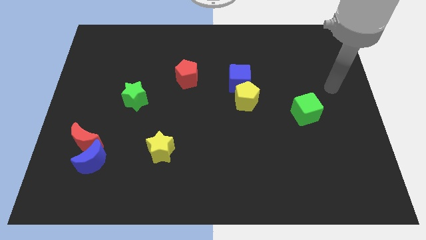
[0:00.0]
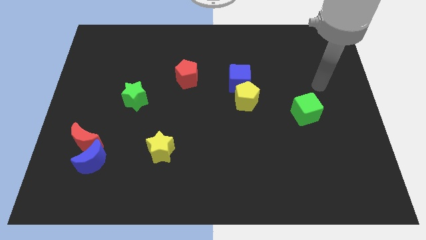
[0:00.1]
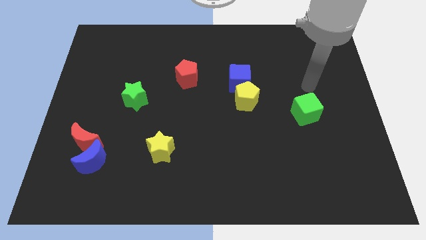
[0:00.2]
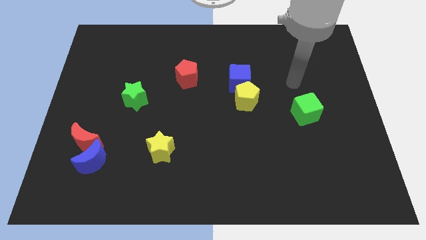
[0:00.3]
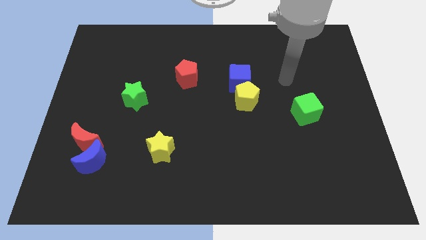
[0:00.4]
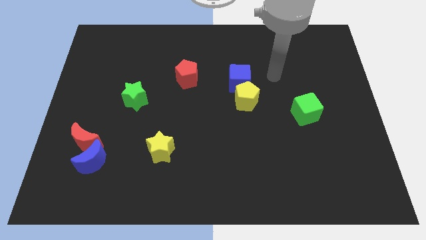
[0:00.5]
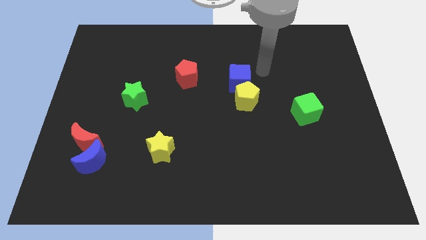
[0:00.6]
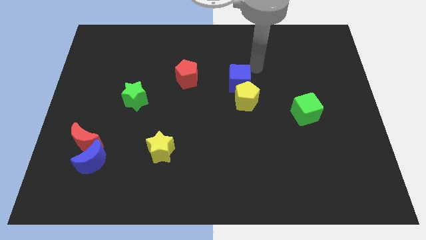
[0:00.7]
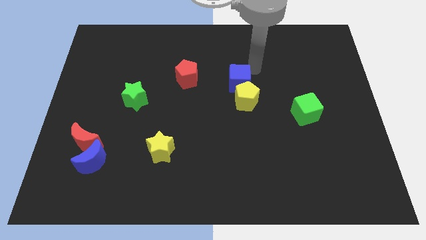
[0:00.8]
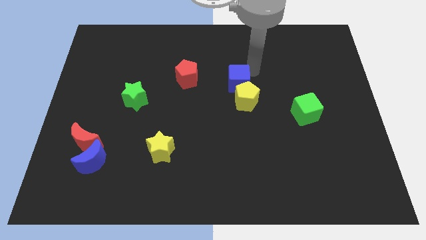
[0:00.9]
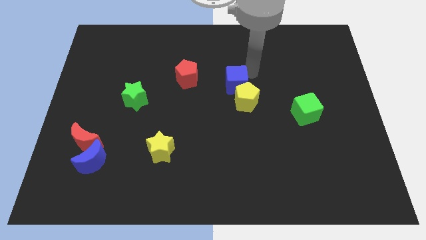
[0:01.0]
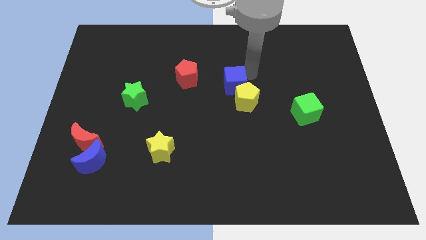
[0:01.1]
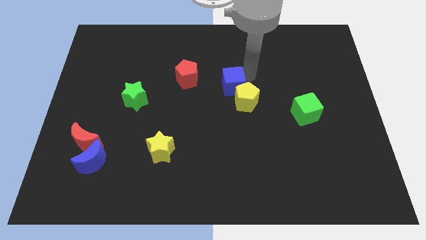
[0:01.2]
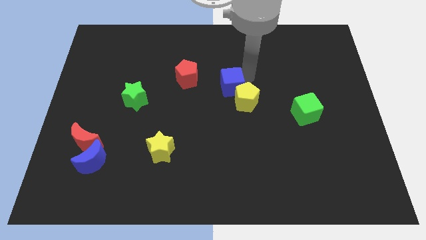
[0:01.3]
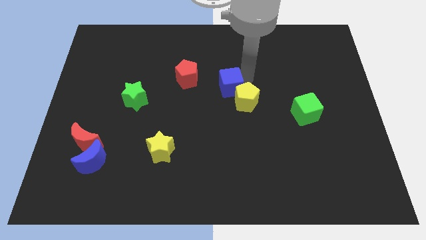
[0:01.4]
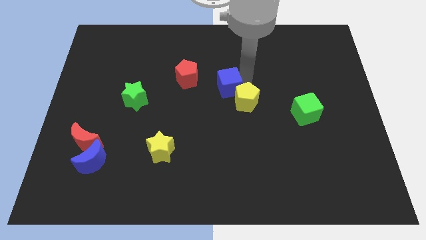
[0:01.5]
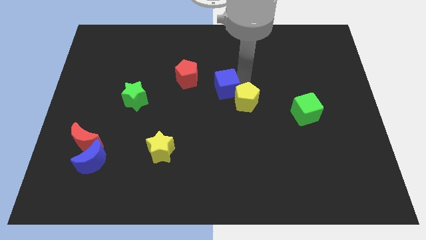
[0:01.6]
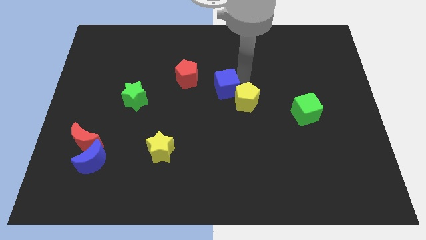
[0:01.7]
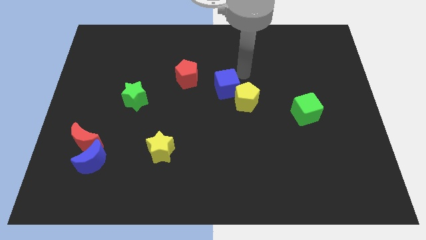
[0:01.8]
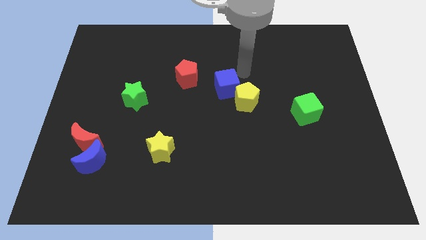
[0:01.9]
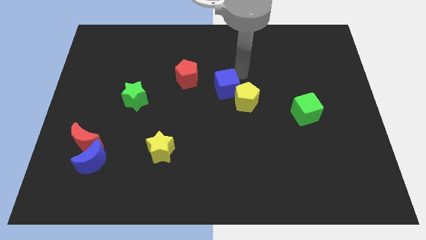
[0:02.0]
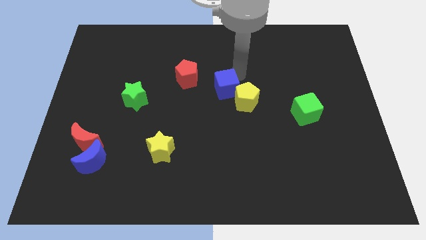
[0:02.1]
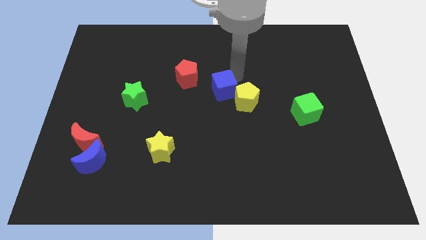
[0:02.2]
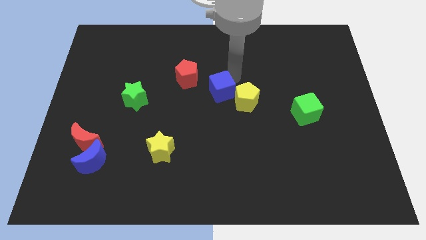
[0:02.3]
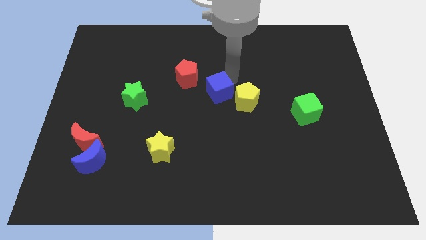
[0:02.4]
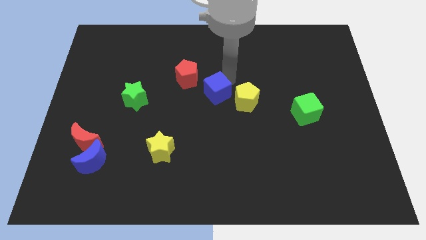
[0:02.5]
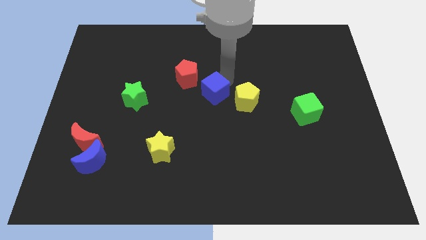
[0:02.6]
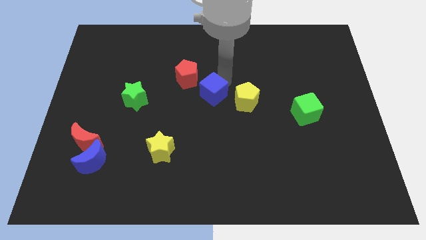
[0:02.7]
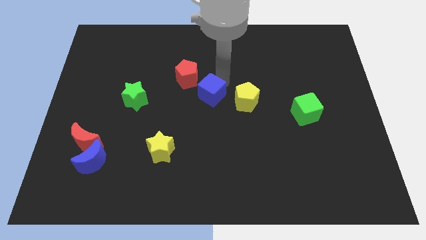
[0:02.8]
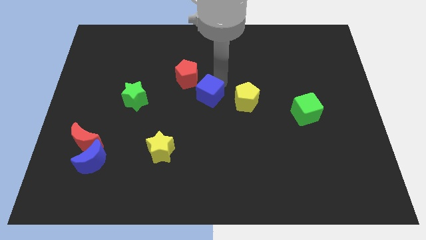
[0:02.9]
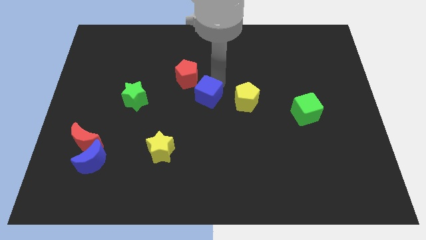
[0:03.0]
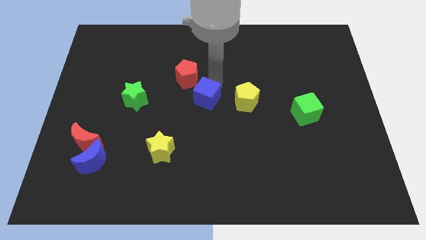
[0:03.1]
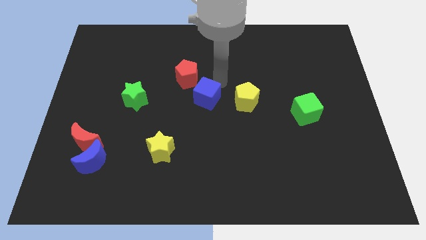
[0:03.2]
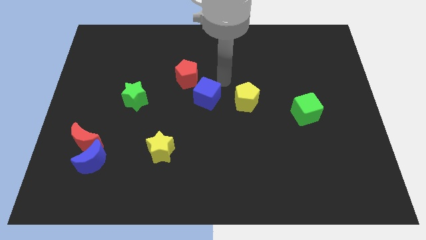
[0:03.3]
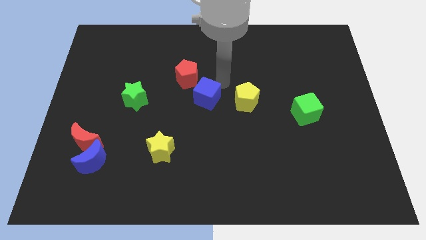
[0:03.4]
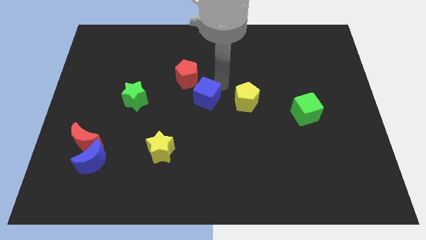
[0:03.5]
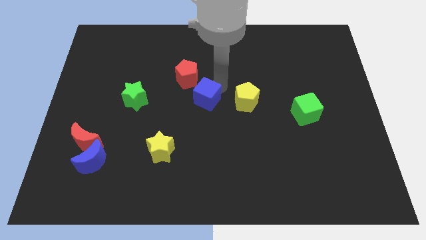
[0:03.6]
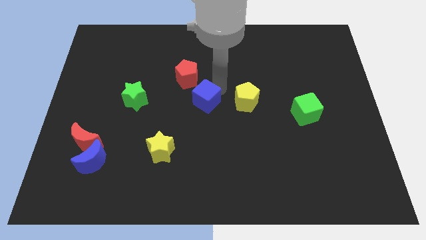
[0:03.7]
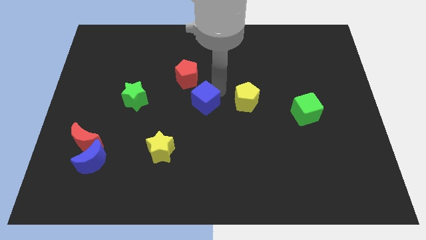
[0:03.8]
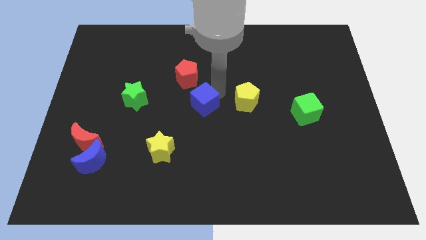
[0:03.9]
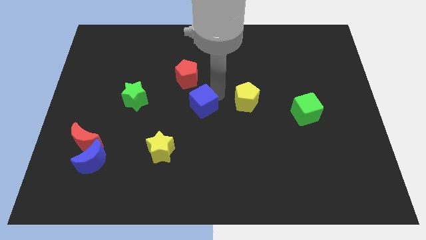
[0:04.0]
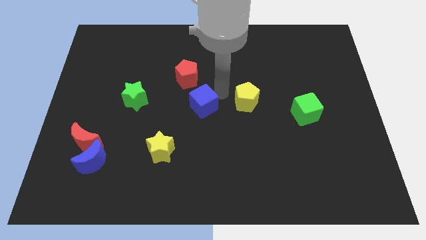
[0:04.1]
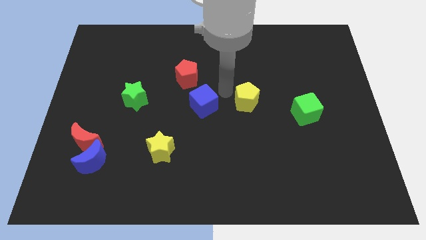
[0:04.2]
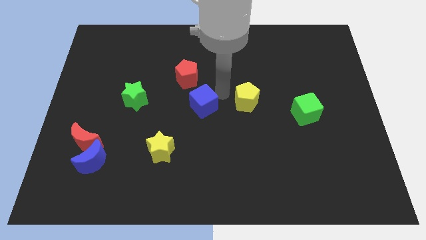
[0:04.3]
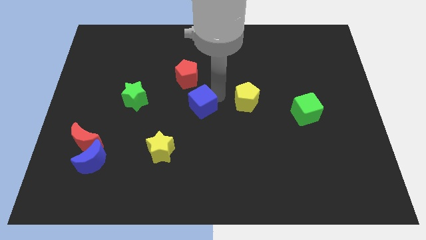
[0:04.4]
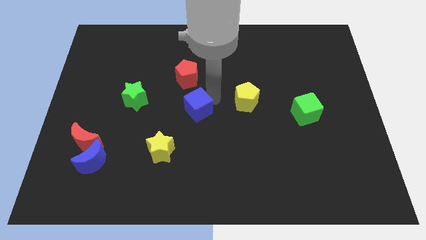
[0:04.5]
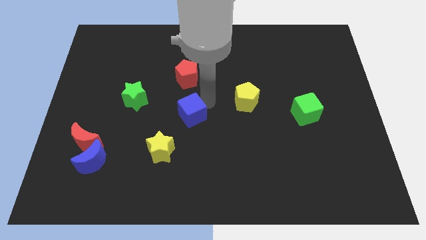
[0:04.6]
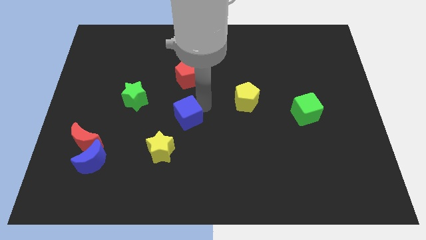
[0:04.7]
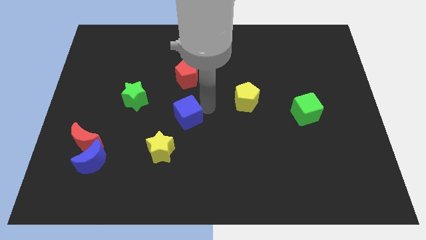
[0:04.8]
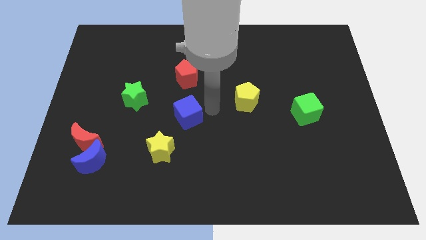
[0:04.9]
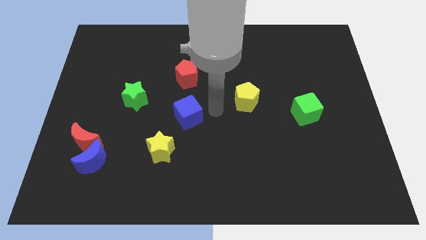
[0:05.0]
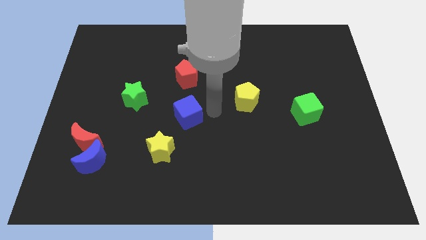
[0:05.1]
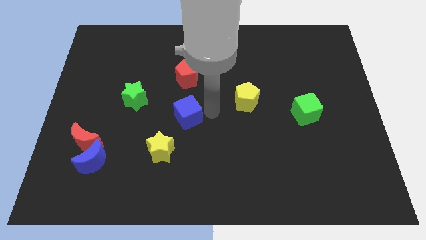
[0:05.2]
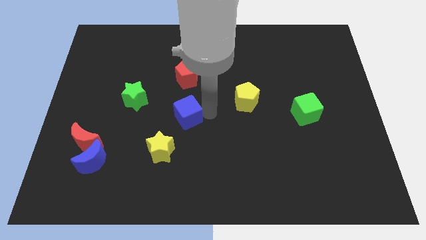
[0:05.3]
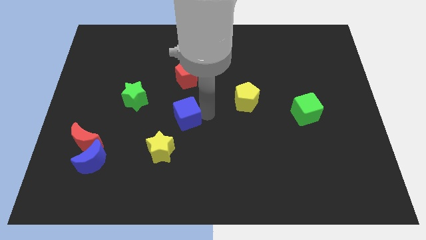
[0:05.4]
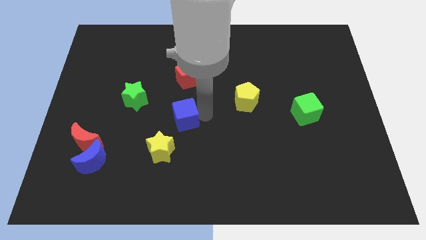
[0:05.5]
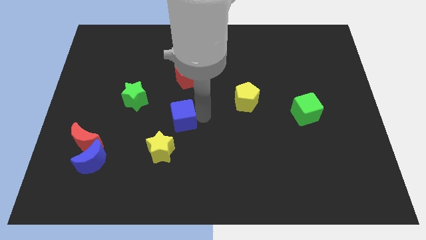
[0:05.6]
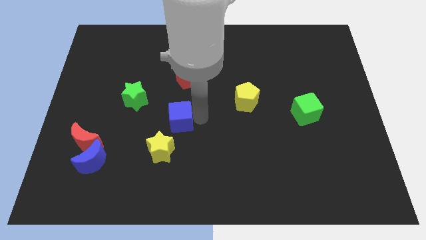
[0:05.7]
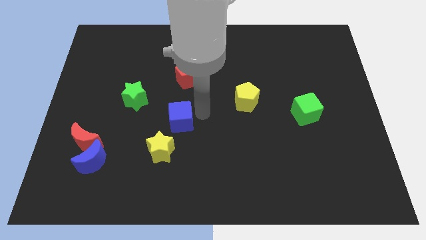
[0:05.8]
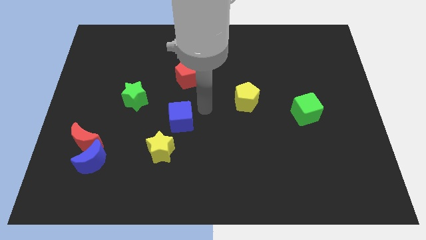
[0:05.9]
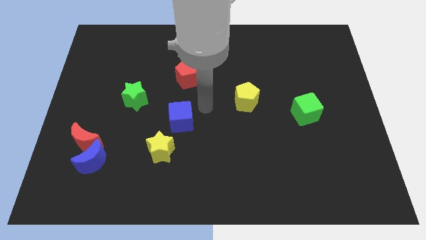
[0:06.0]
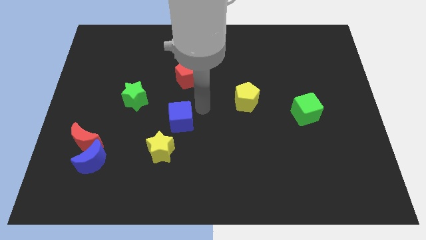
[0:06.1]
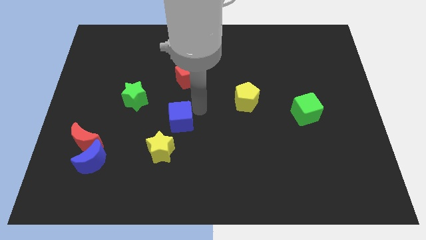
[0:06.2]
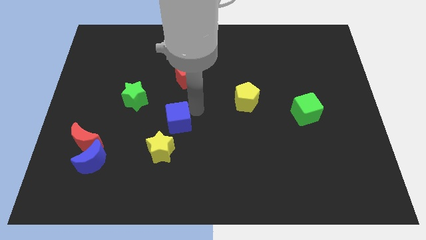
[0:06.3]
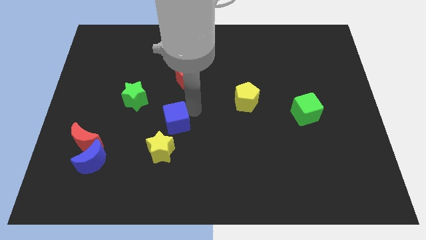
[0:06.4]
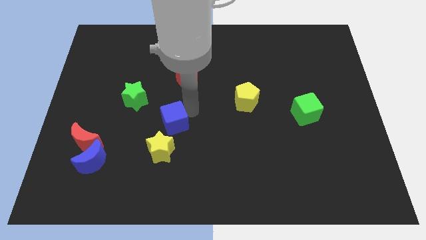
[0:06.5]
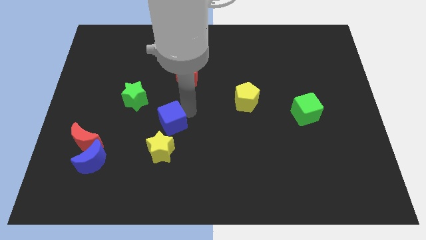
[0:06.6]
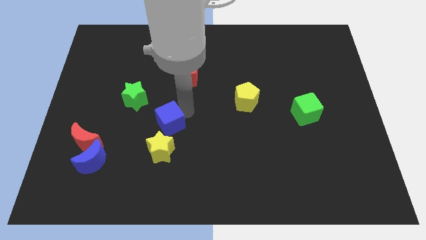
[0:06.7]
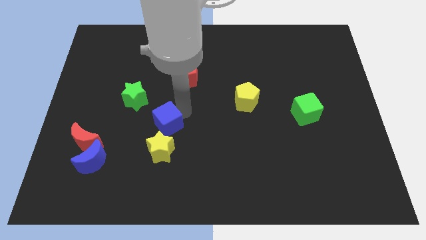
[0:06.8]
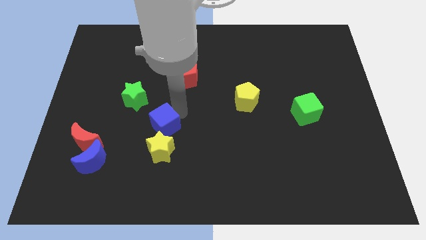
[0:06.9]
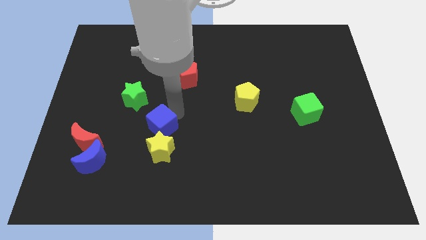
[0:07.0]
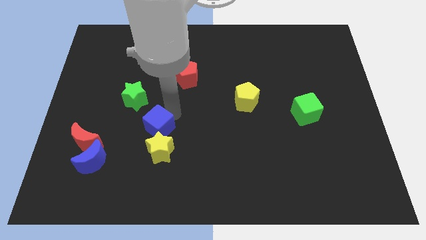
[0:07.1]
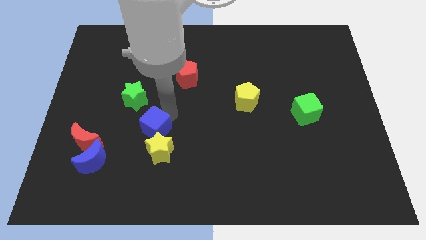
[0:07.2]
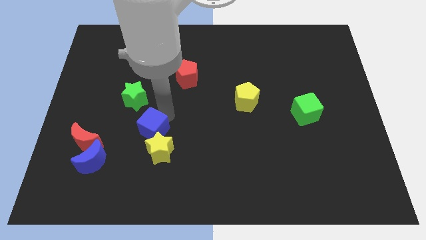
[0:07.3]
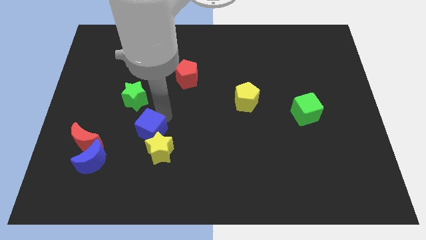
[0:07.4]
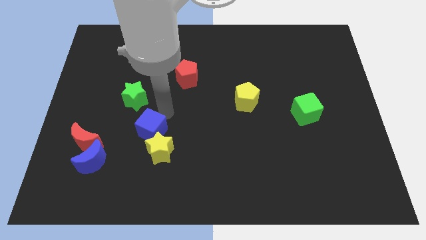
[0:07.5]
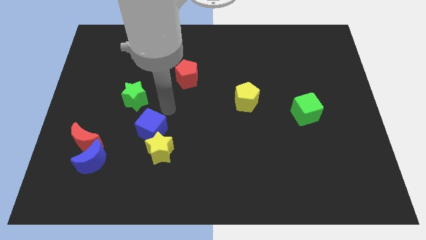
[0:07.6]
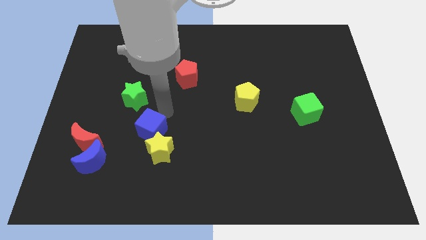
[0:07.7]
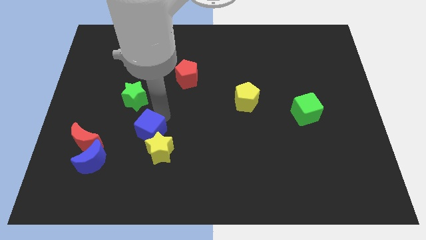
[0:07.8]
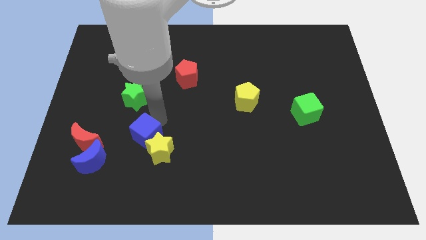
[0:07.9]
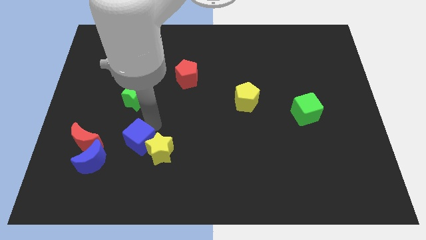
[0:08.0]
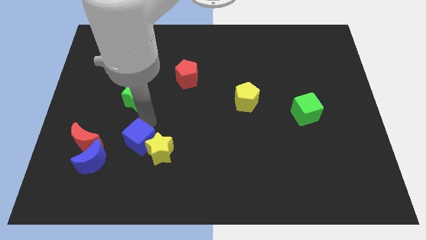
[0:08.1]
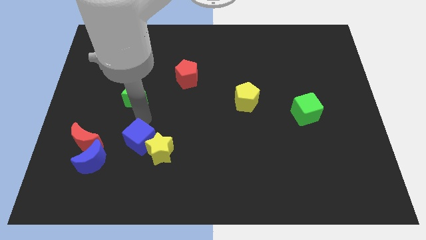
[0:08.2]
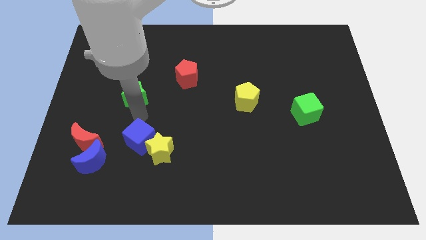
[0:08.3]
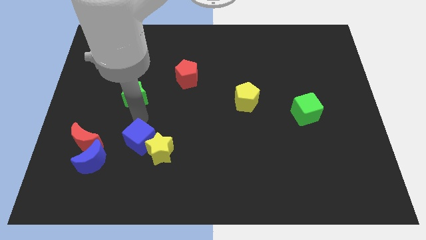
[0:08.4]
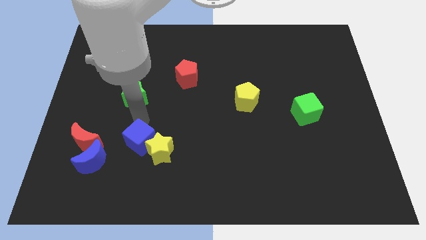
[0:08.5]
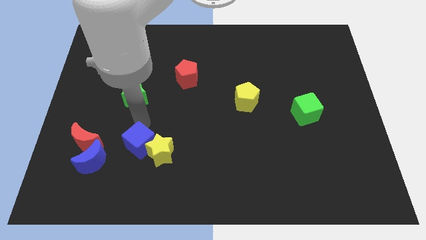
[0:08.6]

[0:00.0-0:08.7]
slide the blue cube to the right of the blue moon
